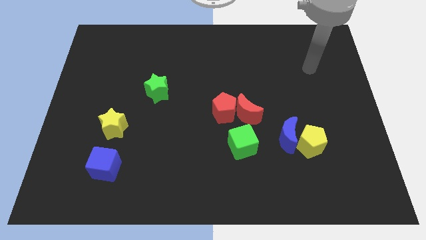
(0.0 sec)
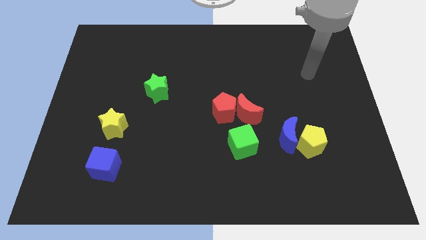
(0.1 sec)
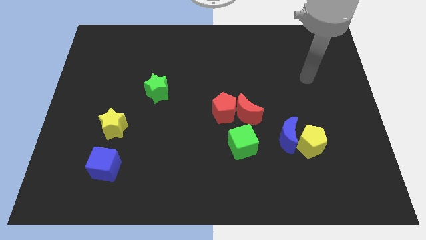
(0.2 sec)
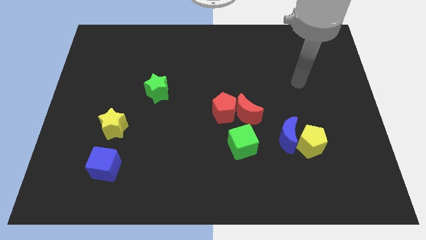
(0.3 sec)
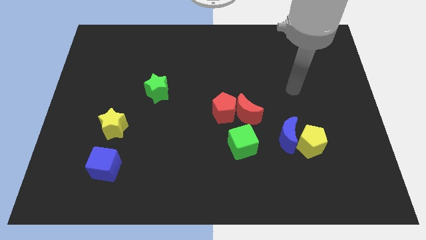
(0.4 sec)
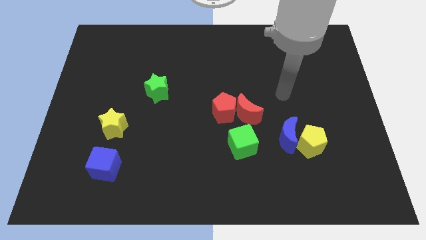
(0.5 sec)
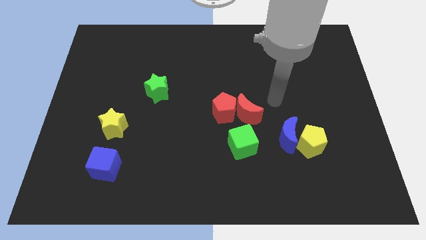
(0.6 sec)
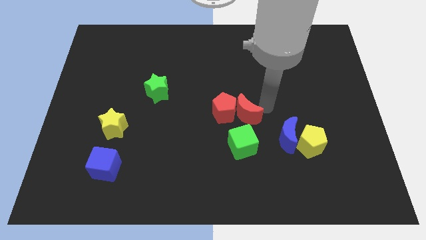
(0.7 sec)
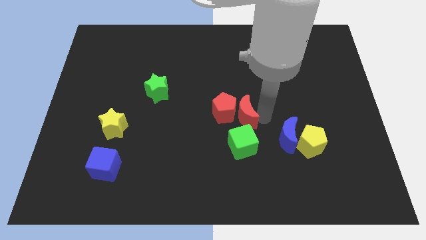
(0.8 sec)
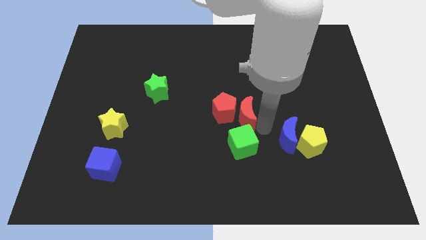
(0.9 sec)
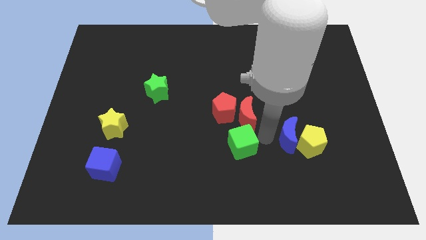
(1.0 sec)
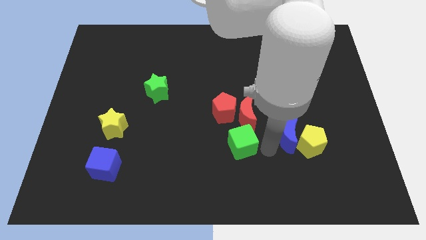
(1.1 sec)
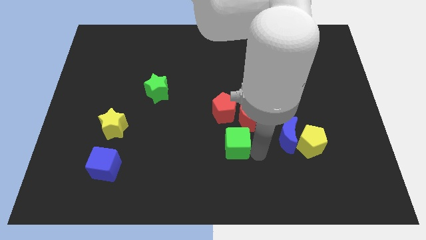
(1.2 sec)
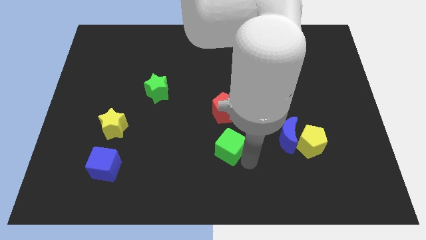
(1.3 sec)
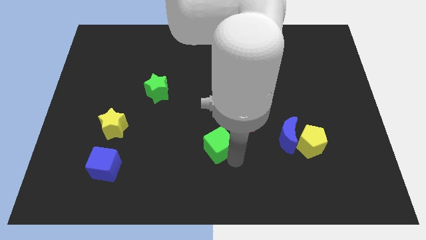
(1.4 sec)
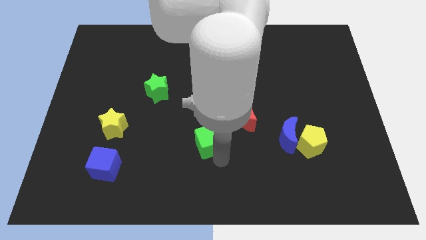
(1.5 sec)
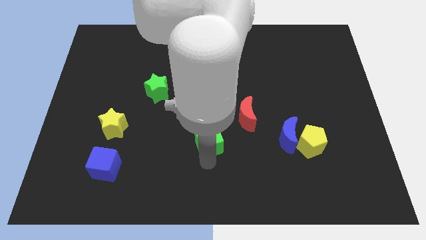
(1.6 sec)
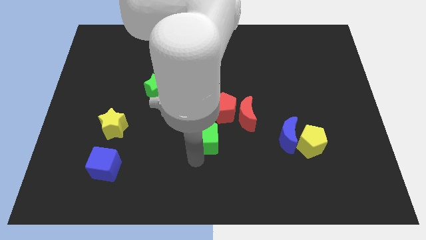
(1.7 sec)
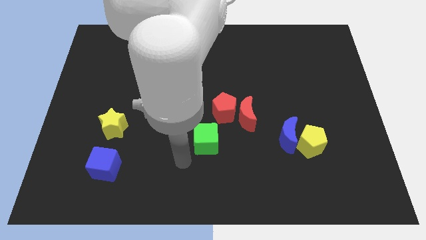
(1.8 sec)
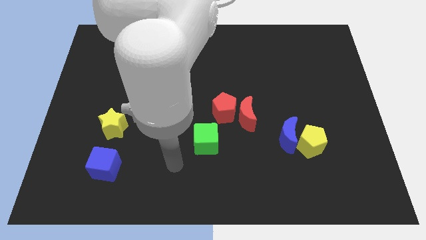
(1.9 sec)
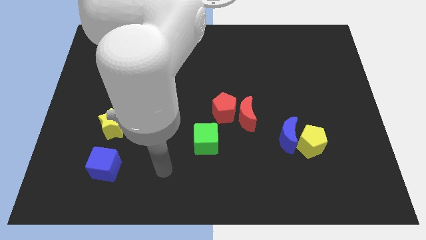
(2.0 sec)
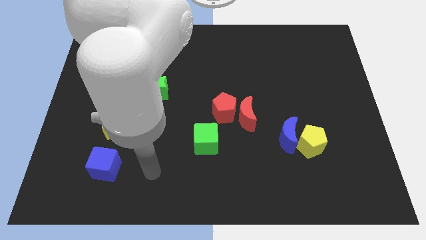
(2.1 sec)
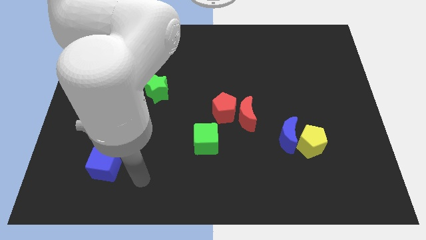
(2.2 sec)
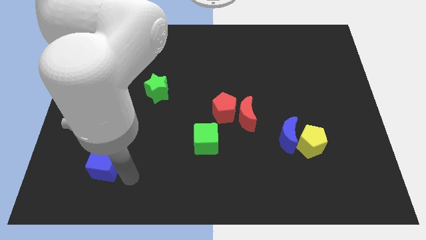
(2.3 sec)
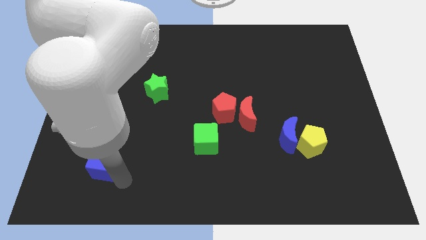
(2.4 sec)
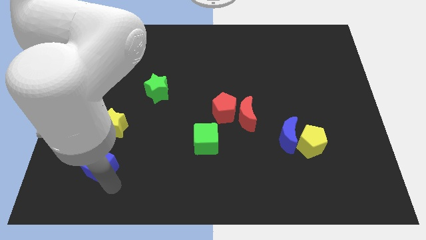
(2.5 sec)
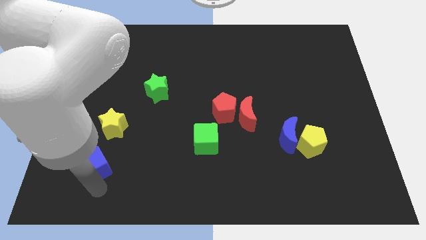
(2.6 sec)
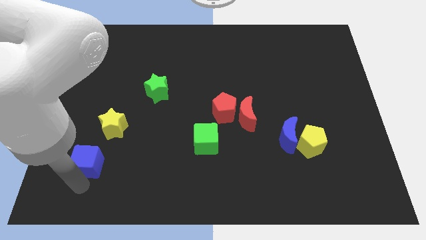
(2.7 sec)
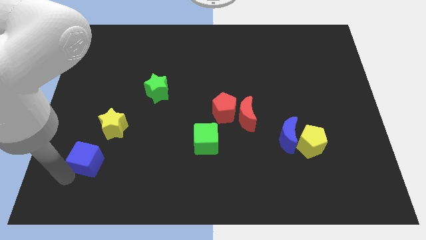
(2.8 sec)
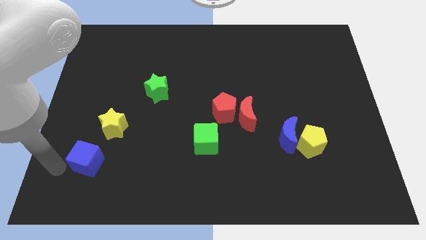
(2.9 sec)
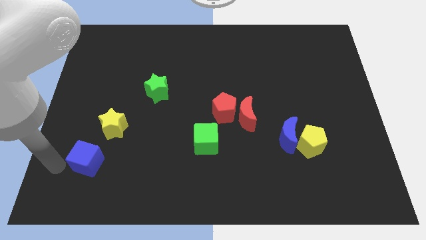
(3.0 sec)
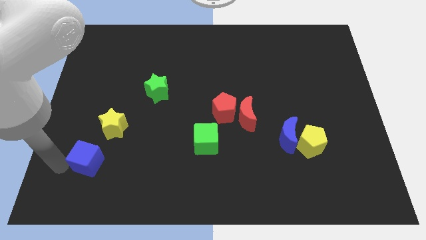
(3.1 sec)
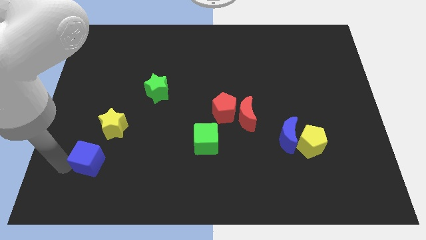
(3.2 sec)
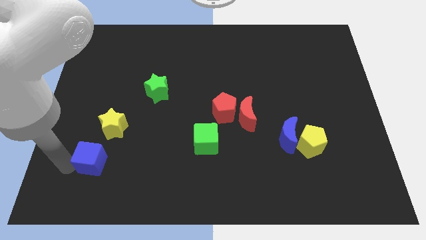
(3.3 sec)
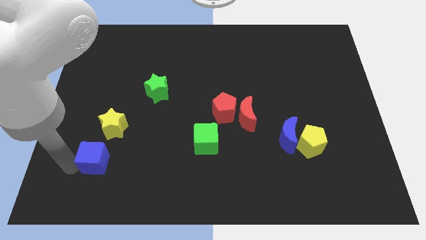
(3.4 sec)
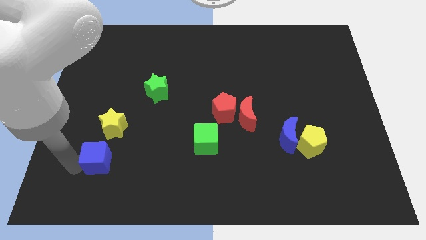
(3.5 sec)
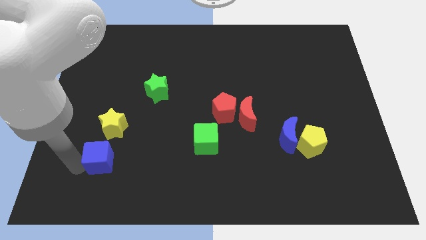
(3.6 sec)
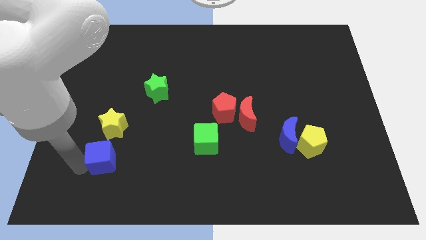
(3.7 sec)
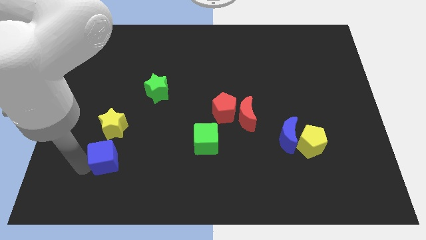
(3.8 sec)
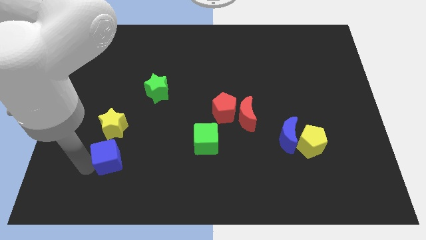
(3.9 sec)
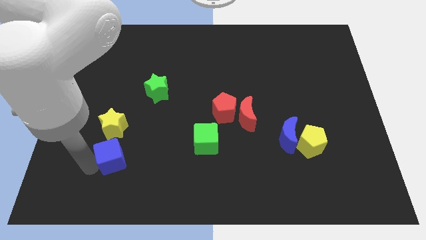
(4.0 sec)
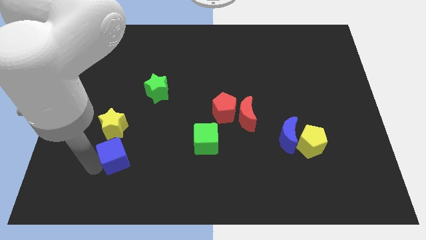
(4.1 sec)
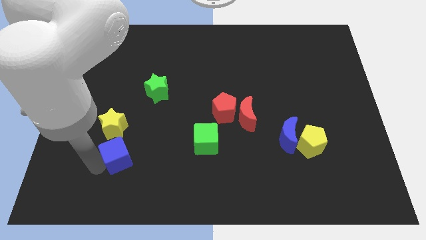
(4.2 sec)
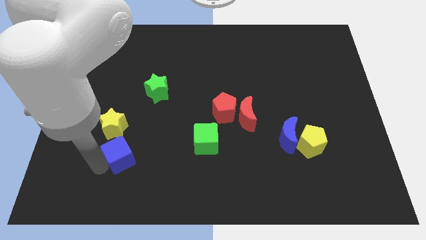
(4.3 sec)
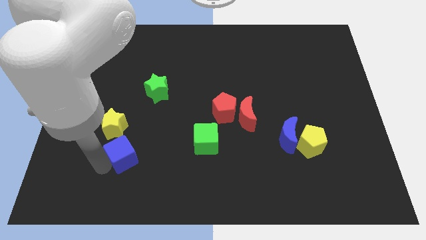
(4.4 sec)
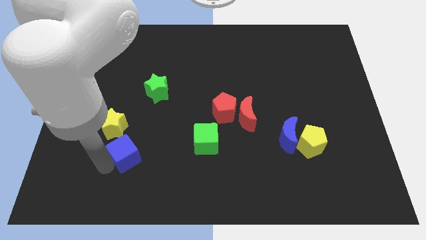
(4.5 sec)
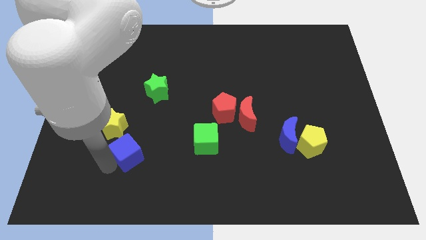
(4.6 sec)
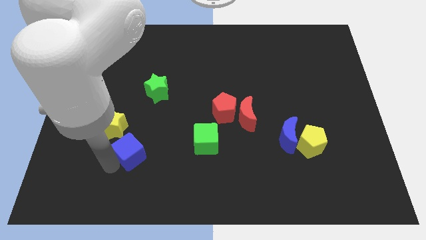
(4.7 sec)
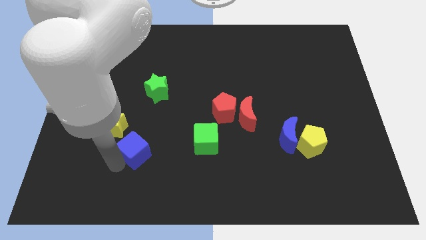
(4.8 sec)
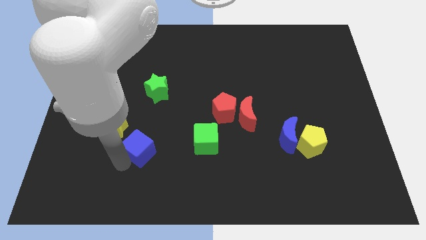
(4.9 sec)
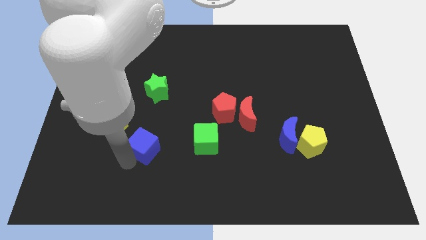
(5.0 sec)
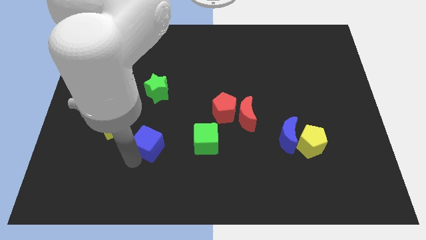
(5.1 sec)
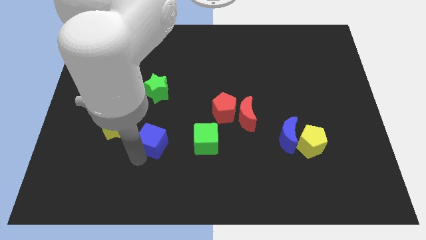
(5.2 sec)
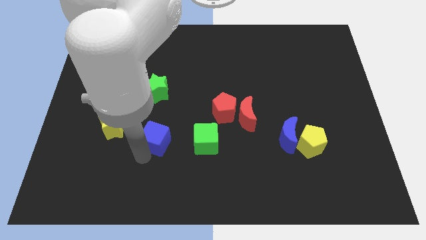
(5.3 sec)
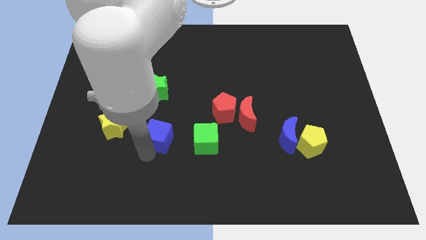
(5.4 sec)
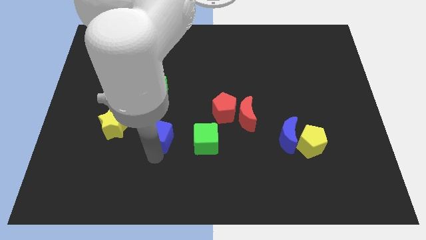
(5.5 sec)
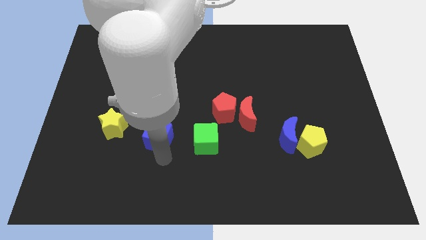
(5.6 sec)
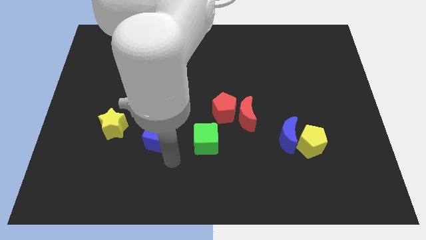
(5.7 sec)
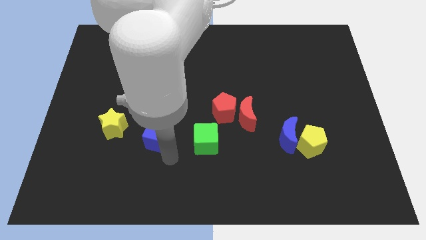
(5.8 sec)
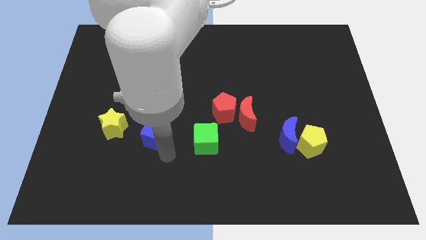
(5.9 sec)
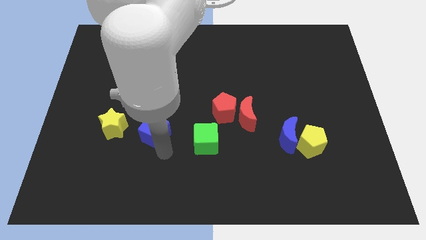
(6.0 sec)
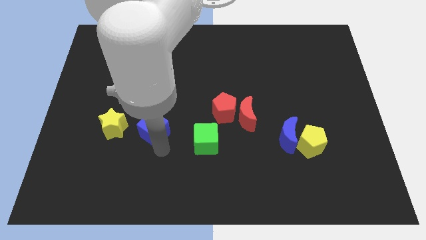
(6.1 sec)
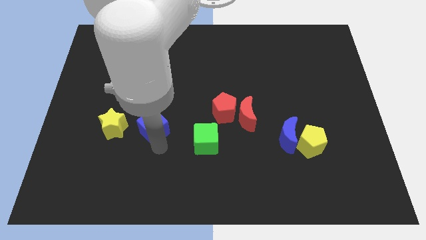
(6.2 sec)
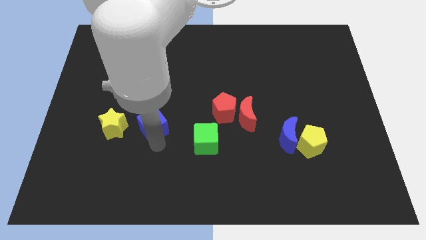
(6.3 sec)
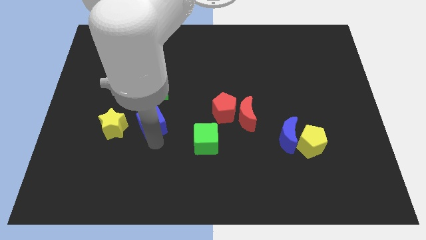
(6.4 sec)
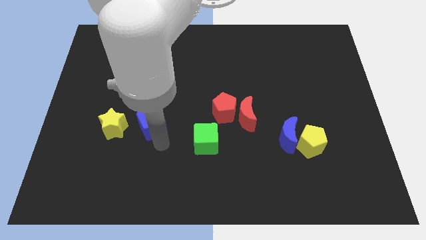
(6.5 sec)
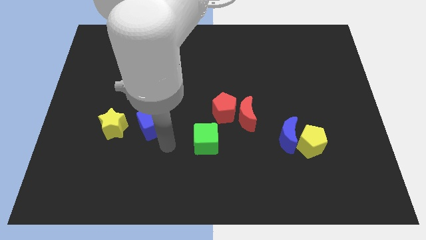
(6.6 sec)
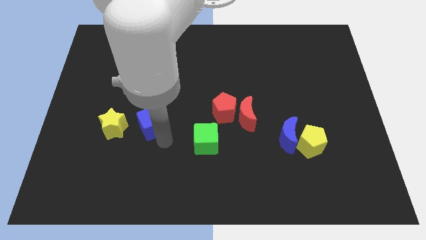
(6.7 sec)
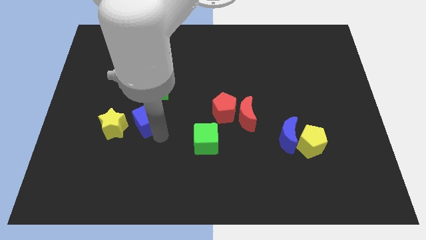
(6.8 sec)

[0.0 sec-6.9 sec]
put the blue cube diagonally up and to the right of the yellow star
